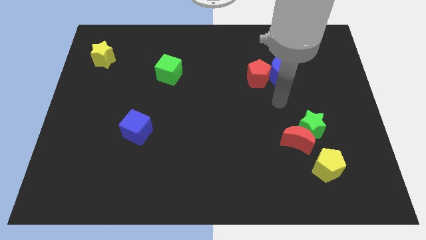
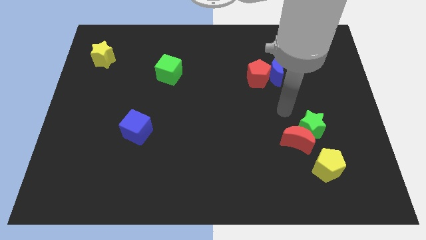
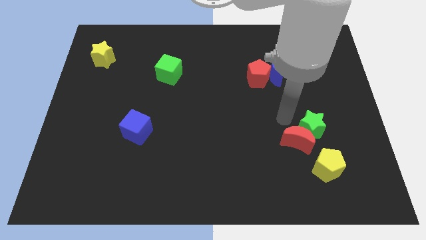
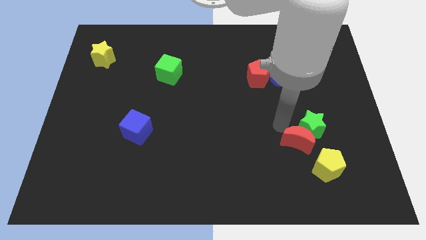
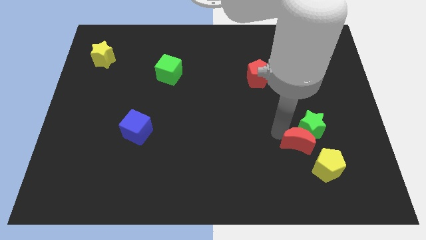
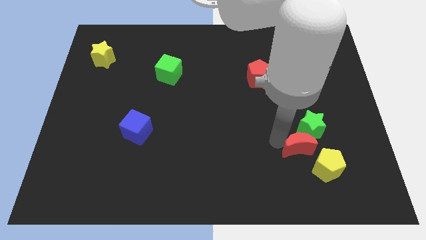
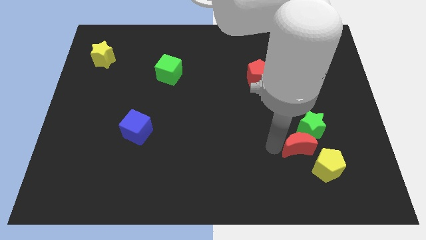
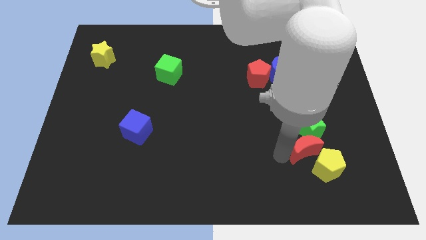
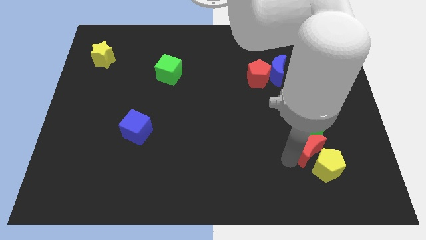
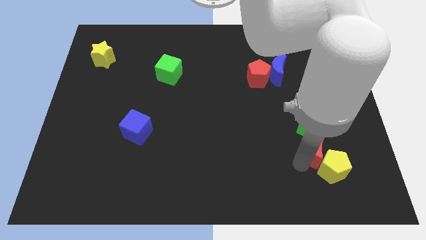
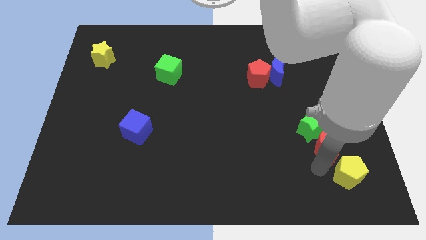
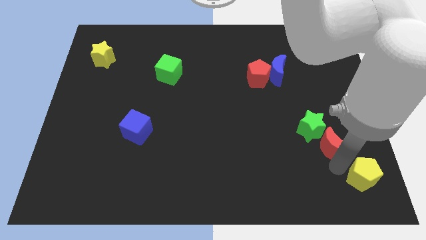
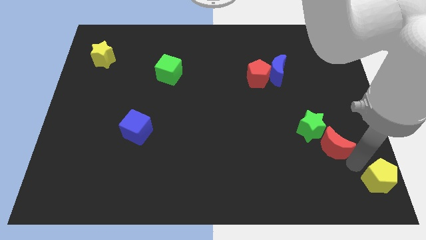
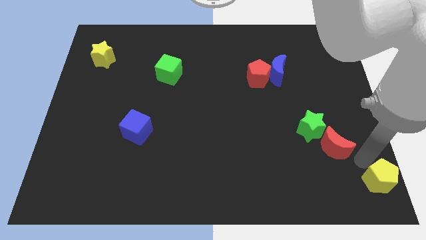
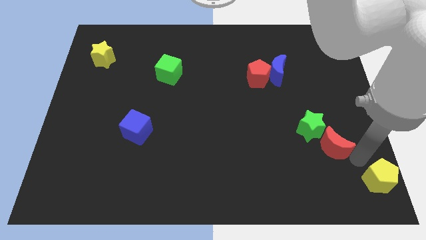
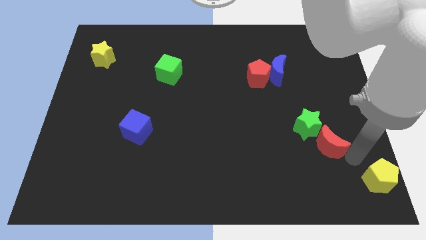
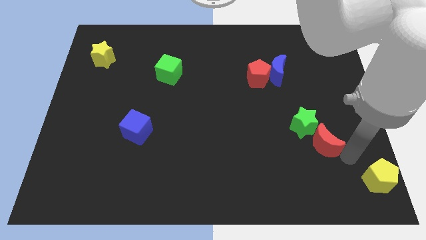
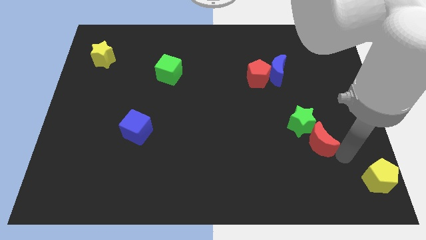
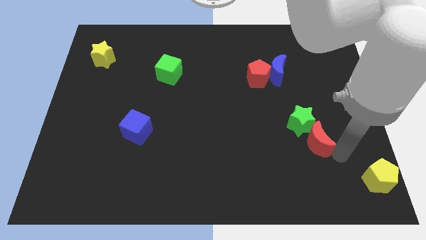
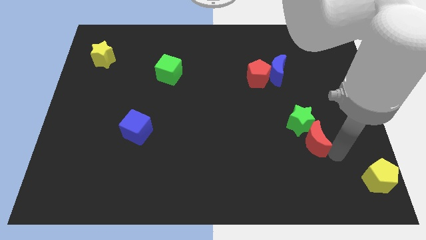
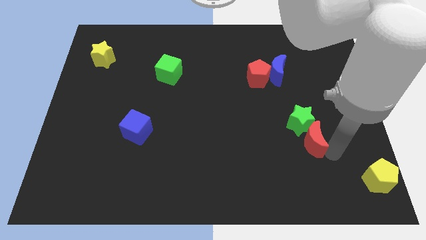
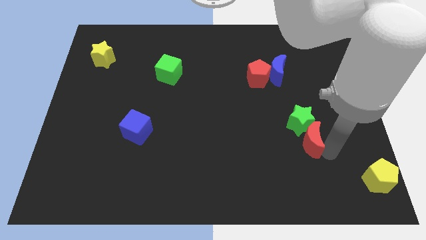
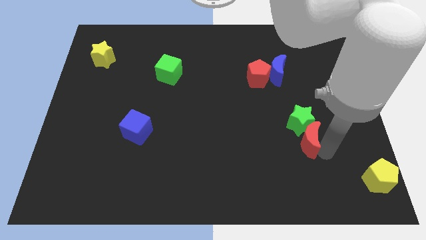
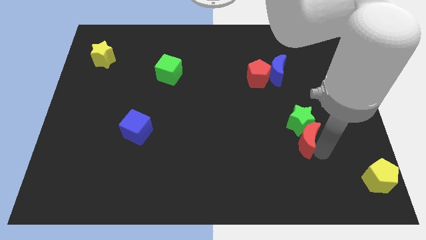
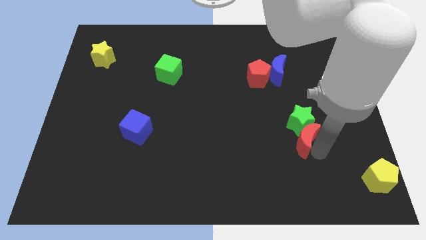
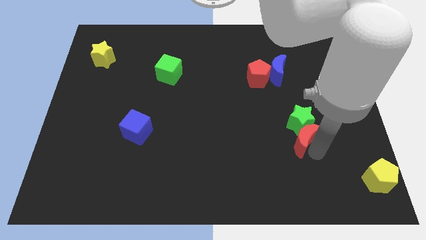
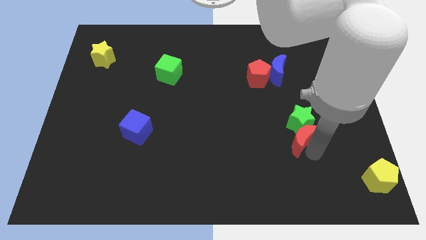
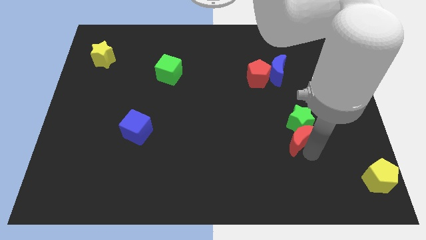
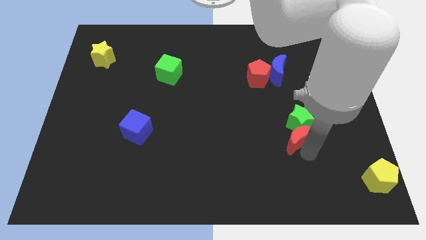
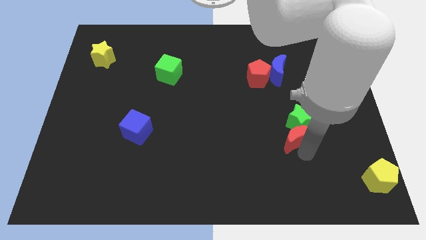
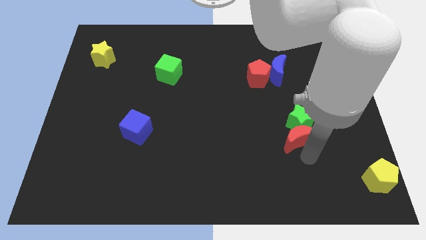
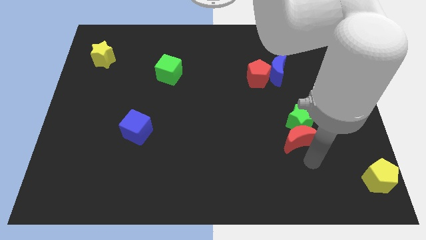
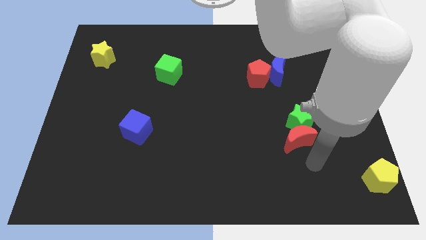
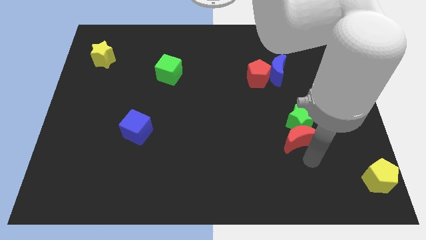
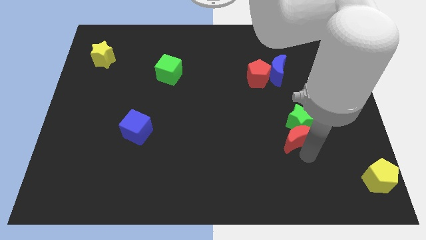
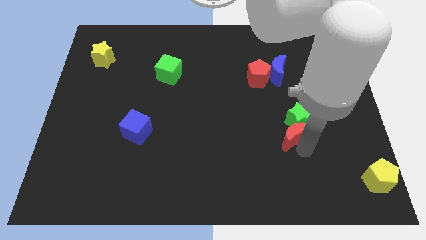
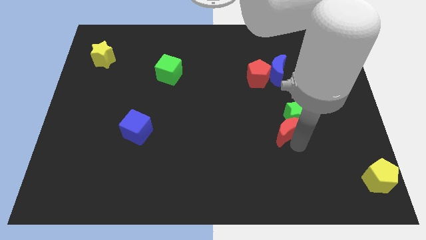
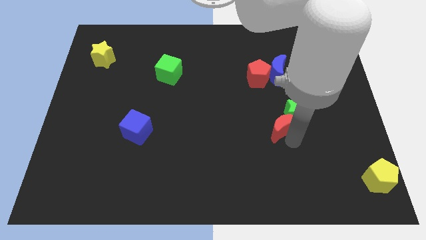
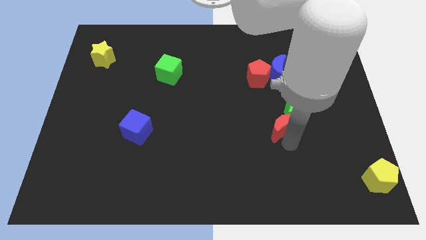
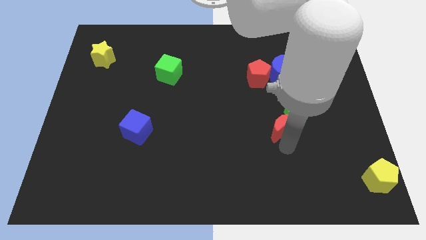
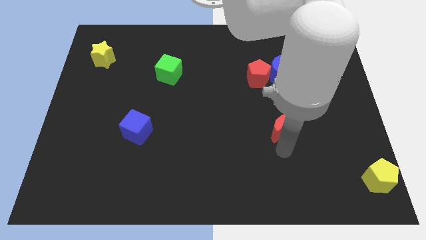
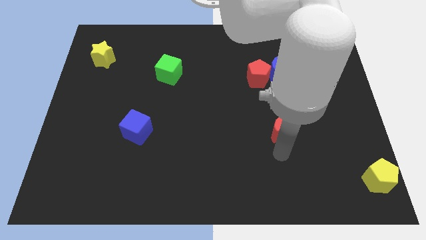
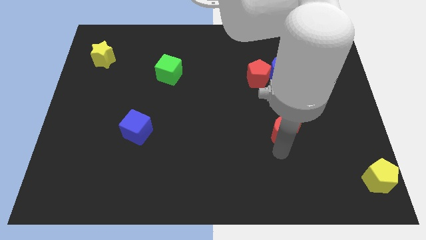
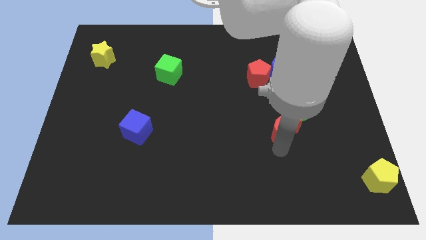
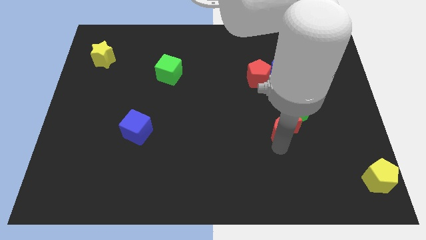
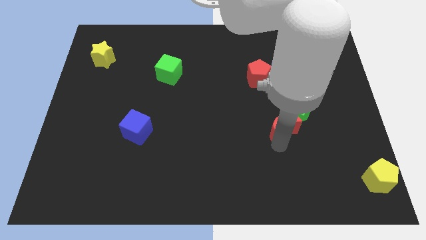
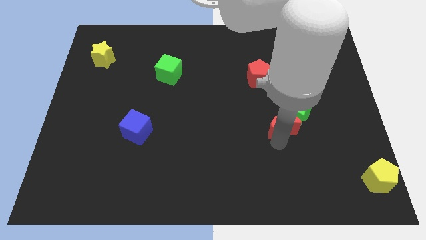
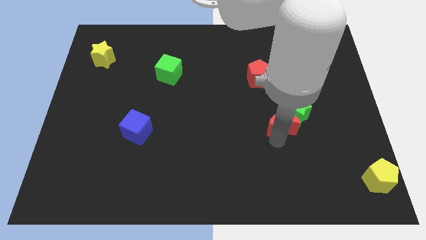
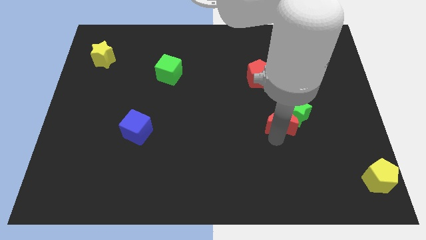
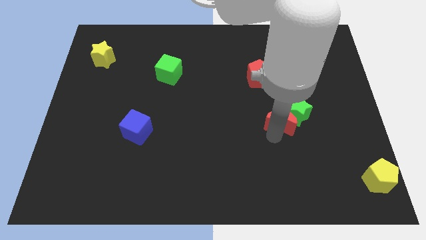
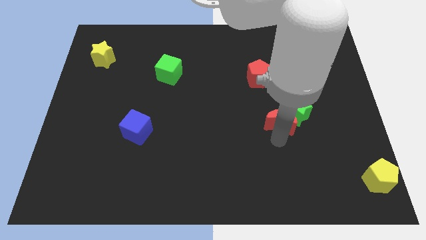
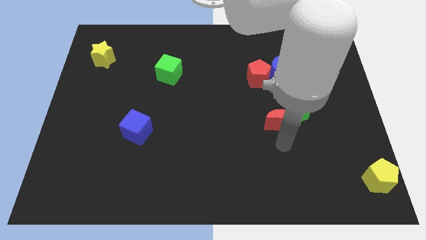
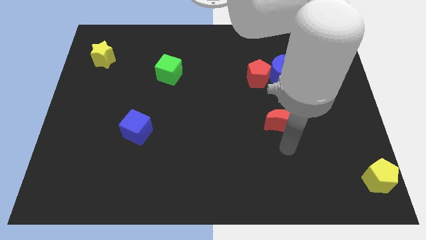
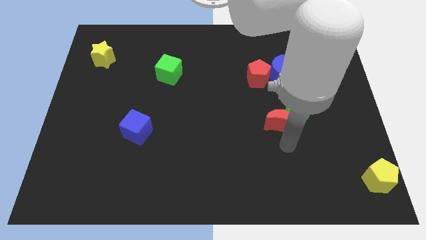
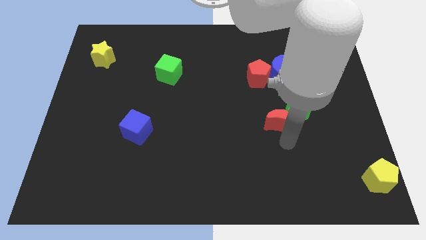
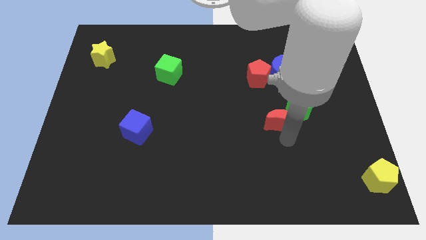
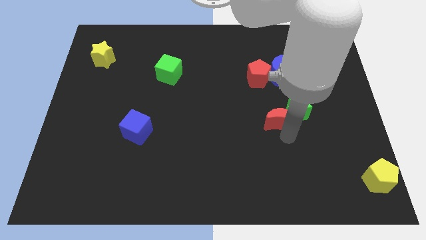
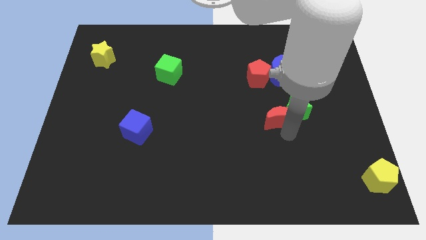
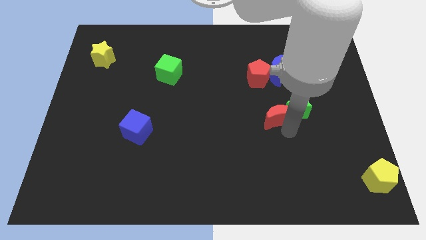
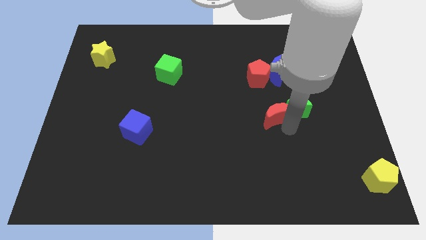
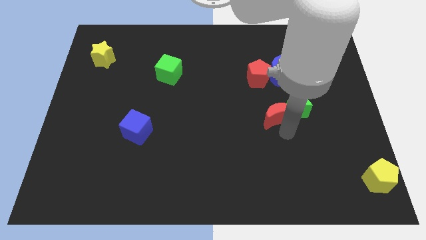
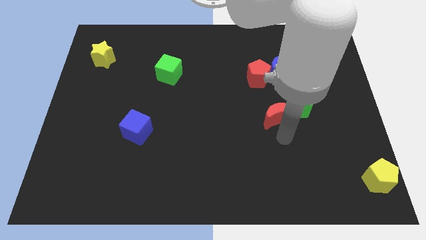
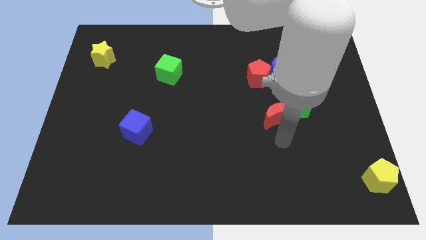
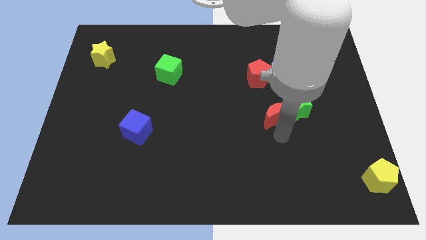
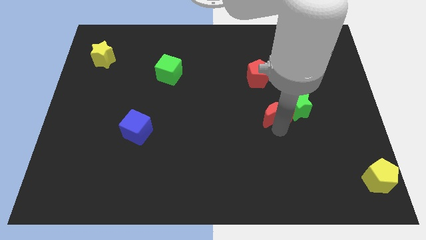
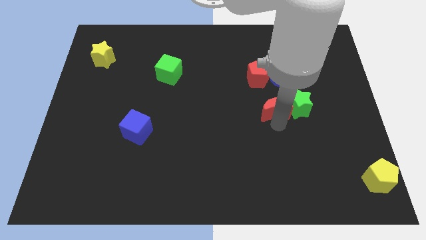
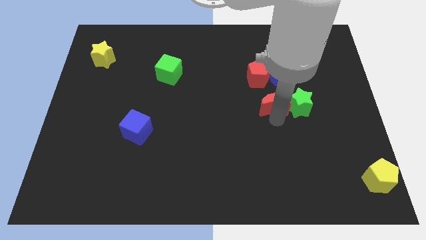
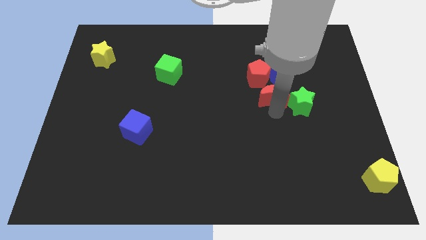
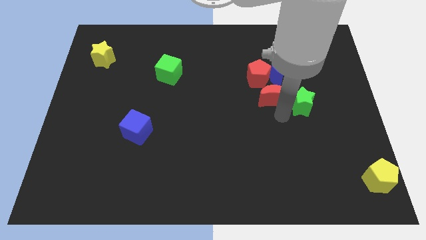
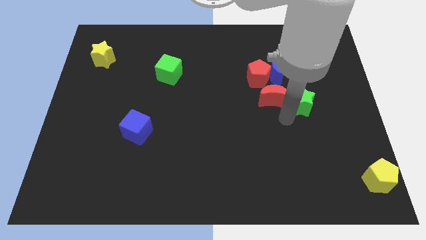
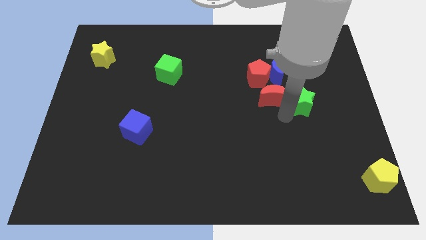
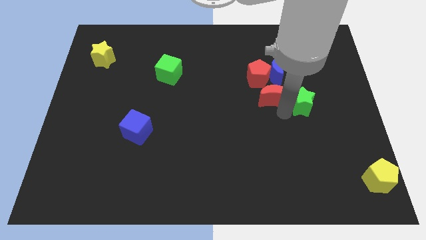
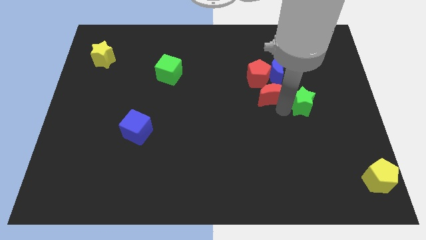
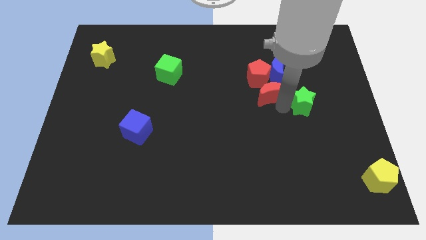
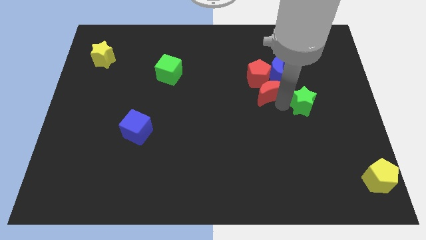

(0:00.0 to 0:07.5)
put the red moon next to the red pentagon
